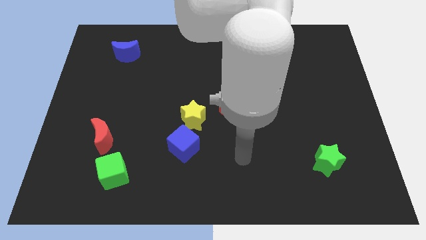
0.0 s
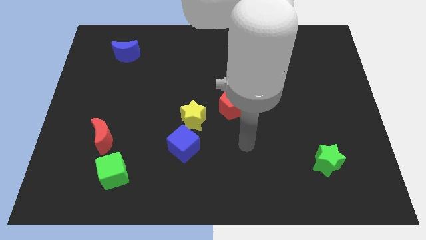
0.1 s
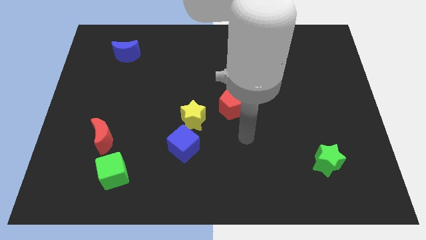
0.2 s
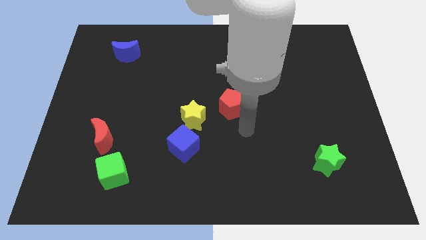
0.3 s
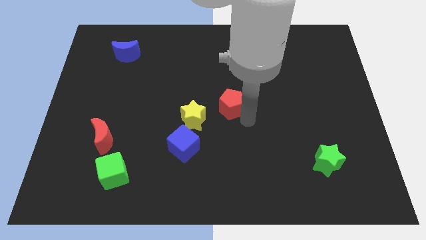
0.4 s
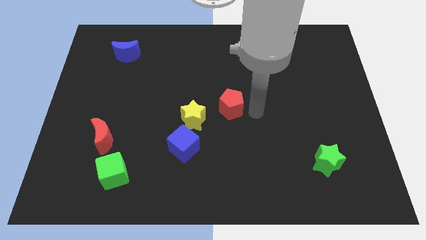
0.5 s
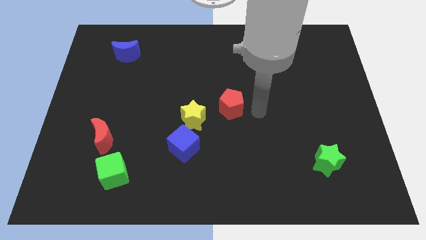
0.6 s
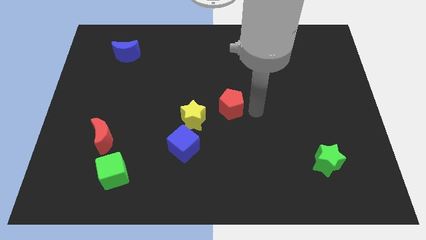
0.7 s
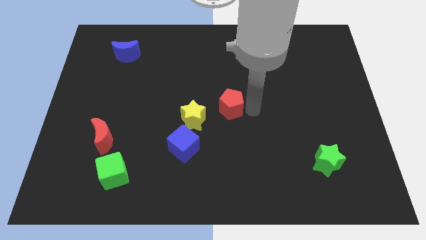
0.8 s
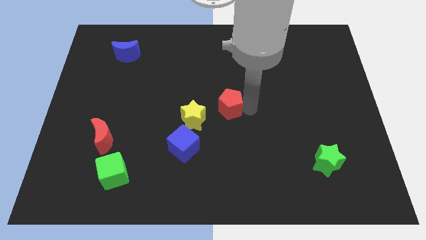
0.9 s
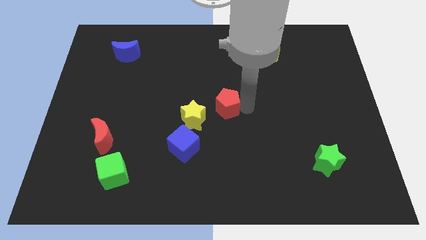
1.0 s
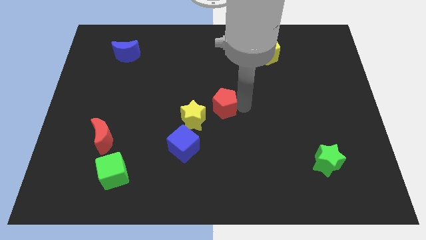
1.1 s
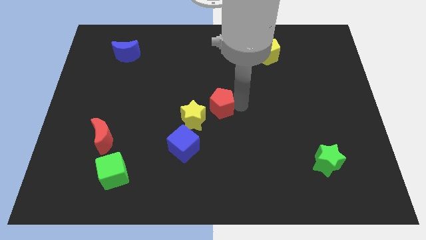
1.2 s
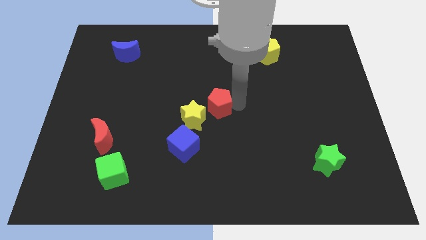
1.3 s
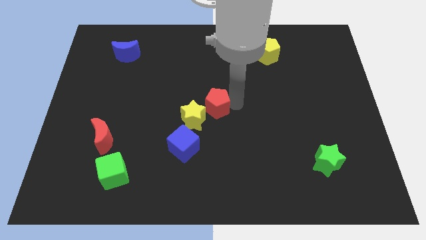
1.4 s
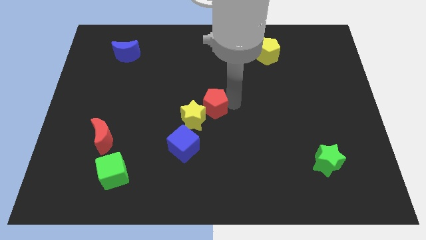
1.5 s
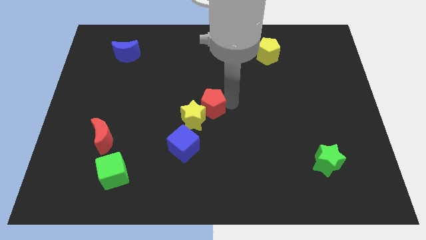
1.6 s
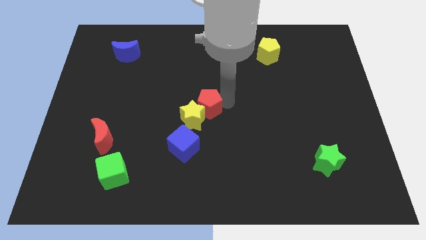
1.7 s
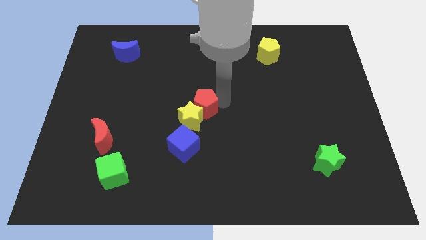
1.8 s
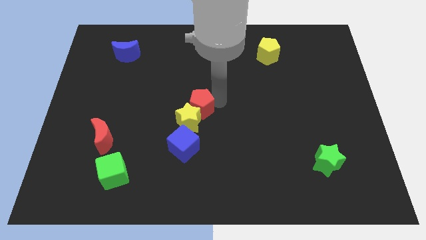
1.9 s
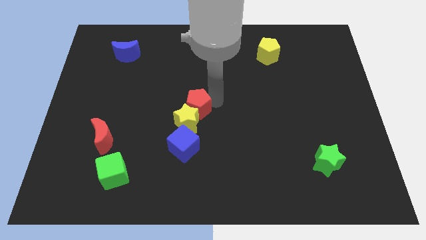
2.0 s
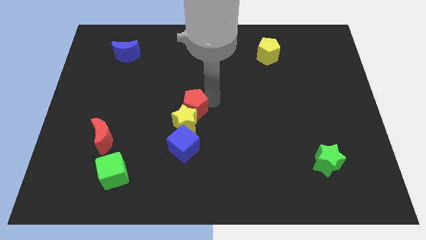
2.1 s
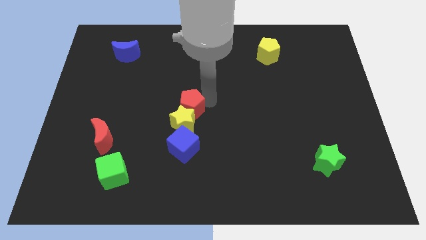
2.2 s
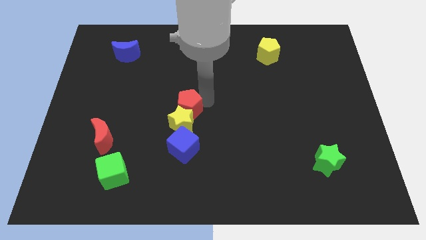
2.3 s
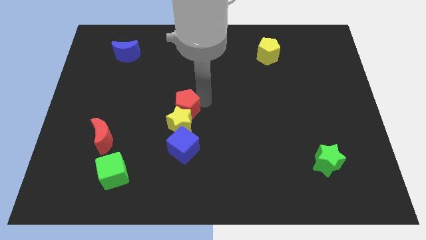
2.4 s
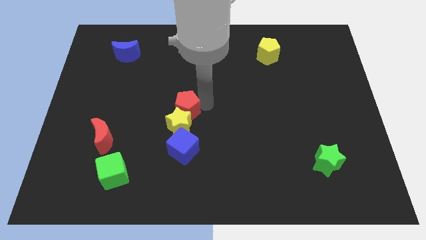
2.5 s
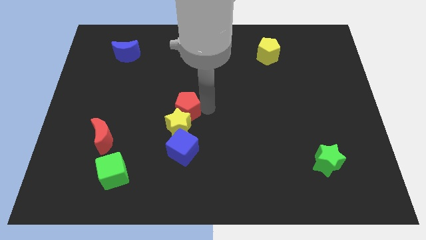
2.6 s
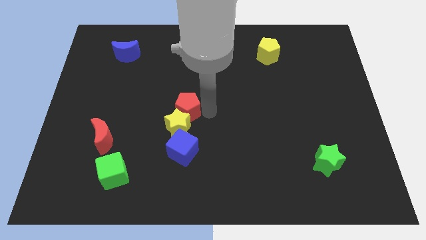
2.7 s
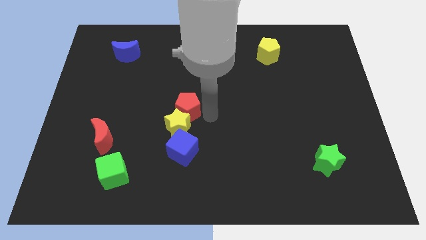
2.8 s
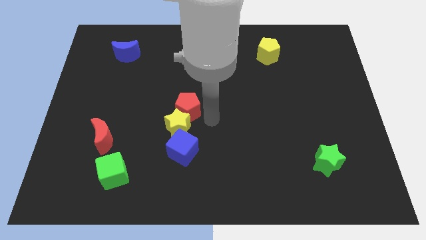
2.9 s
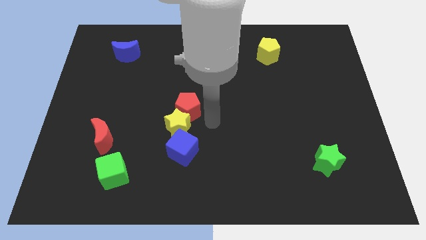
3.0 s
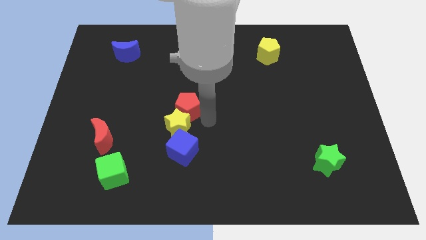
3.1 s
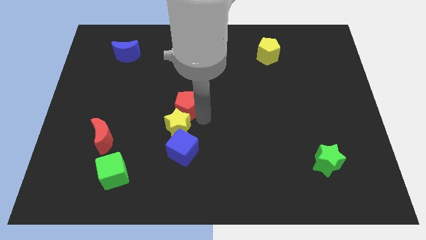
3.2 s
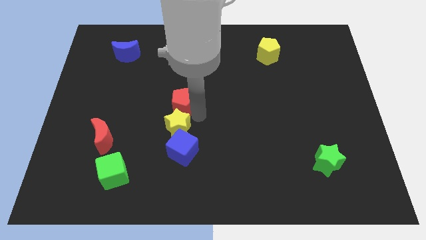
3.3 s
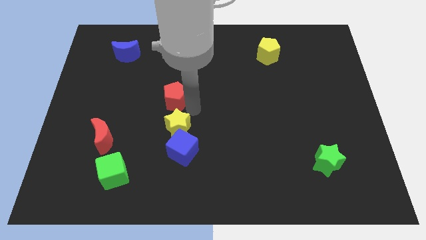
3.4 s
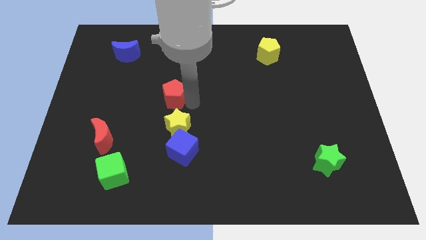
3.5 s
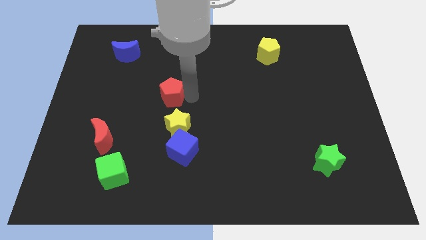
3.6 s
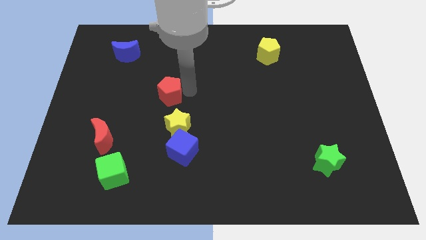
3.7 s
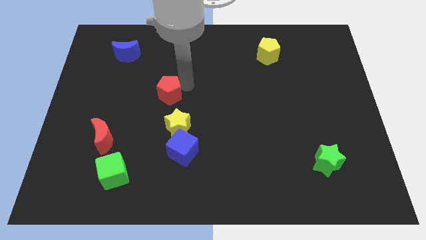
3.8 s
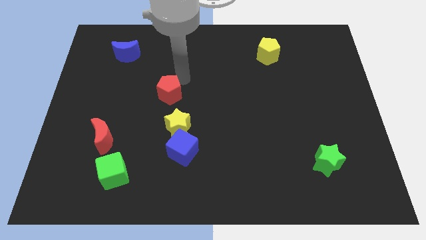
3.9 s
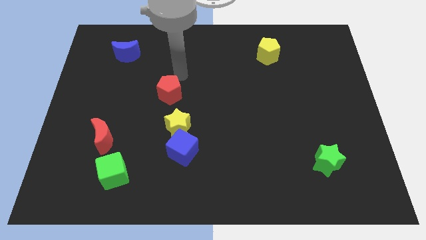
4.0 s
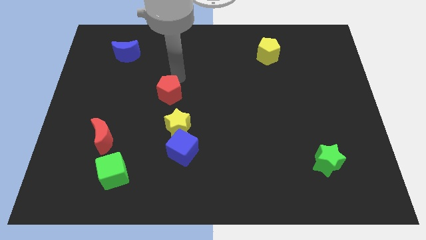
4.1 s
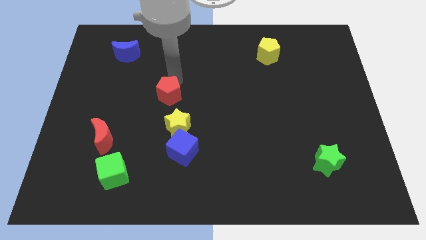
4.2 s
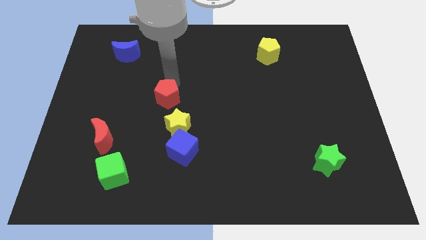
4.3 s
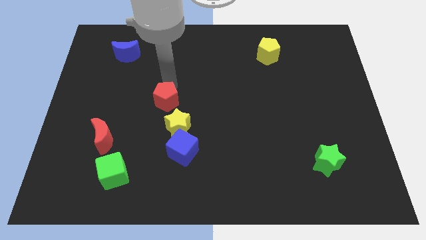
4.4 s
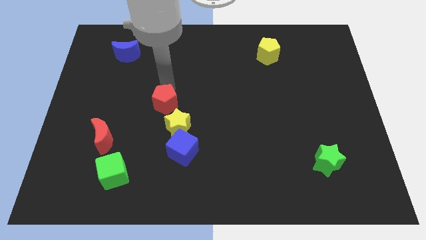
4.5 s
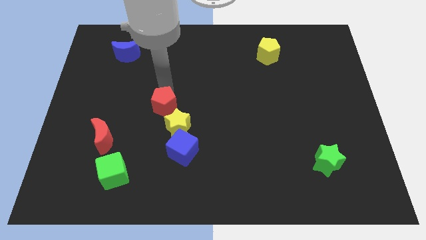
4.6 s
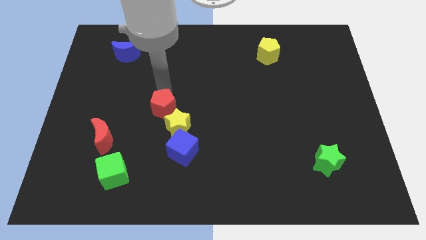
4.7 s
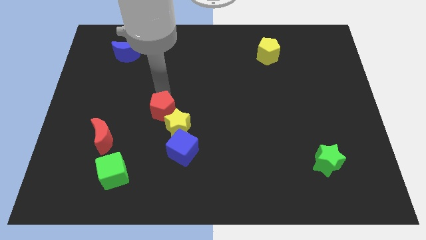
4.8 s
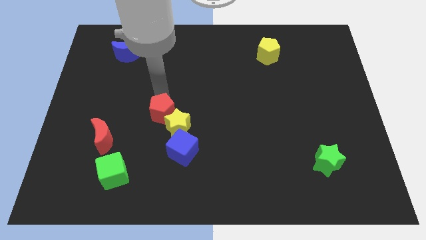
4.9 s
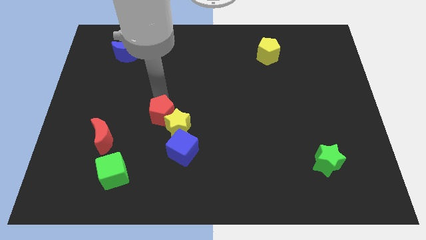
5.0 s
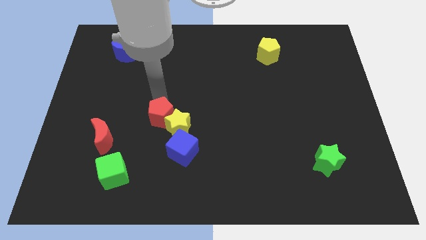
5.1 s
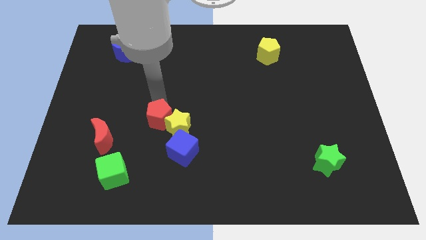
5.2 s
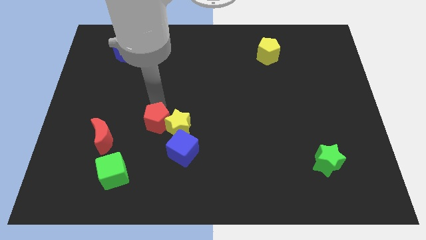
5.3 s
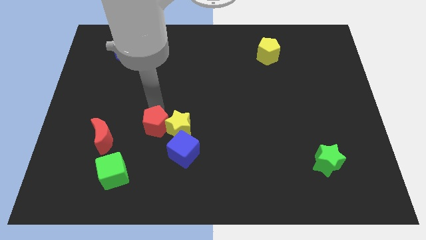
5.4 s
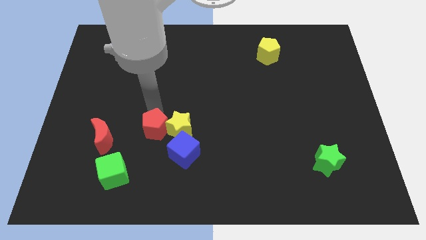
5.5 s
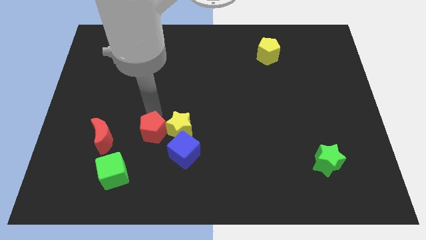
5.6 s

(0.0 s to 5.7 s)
push the red pentagon diagonally up and to the right of the green cube

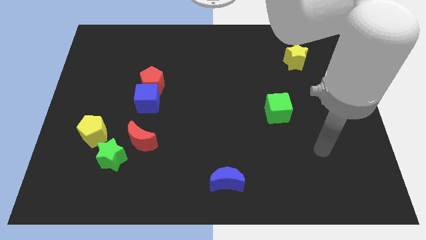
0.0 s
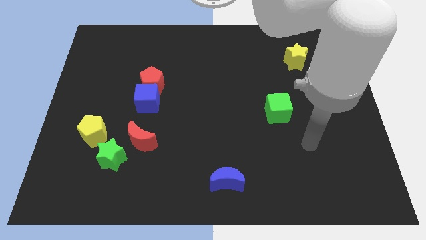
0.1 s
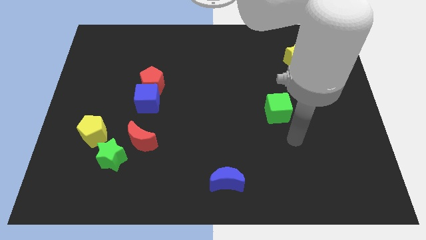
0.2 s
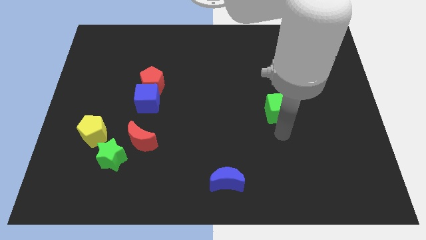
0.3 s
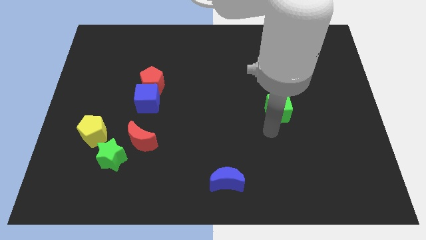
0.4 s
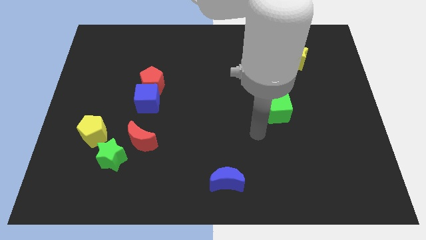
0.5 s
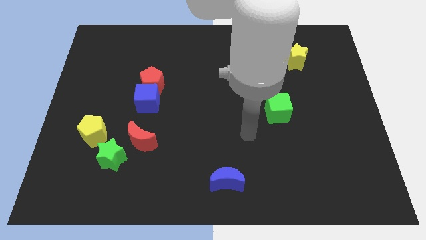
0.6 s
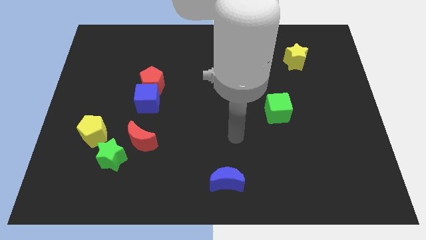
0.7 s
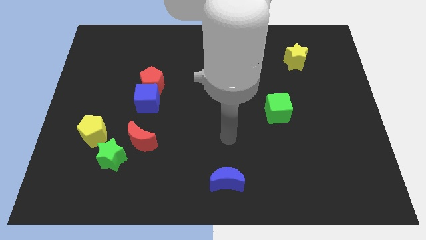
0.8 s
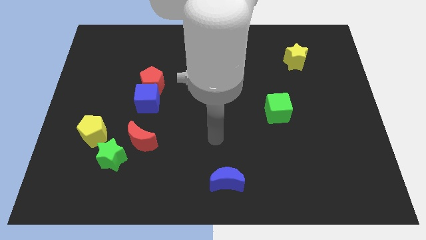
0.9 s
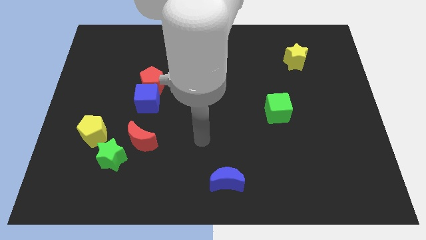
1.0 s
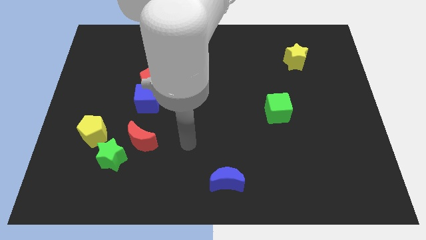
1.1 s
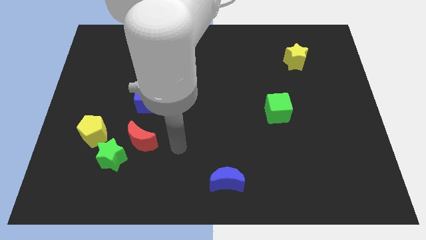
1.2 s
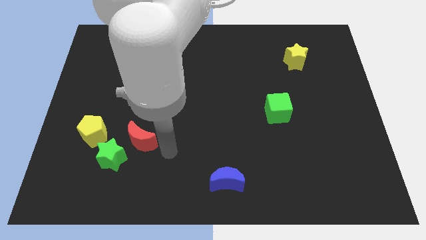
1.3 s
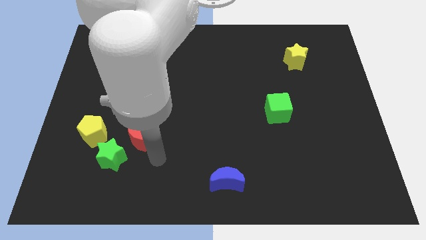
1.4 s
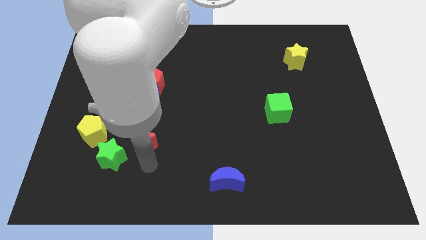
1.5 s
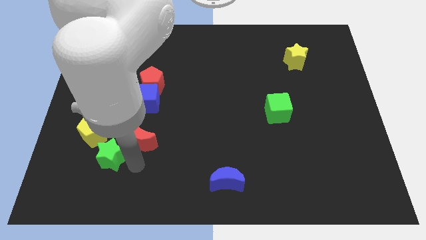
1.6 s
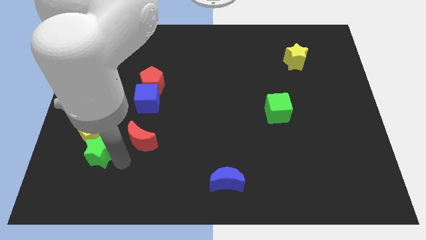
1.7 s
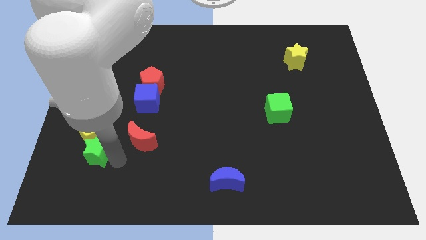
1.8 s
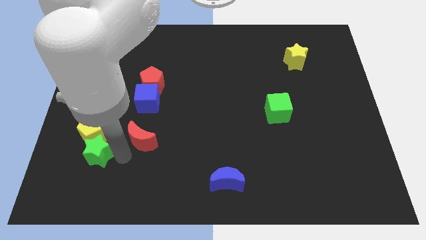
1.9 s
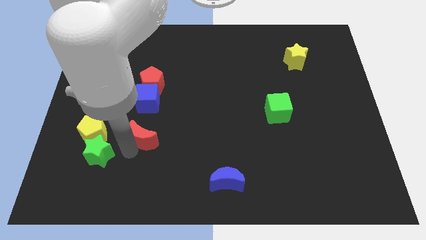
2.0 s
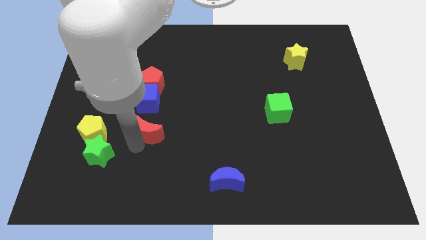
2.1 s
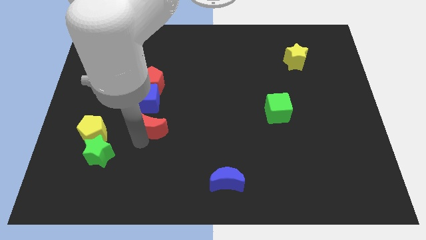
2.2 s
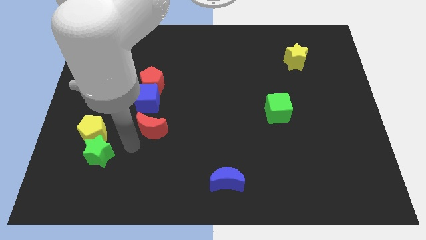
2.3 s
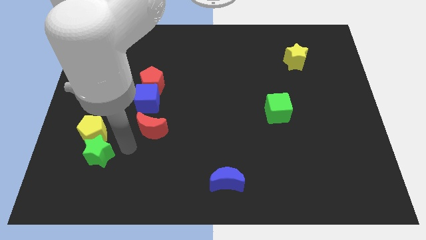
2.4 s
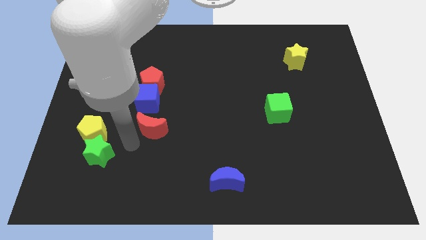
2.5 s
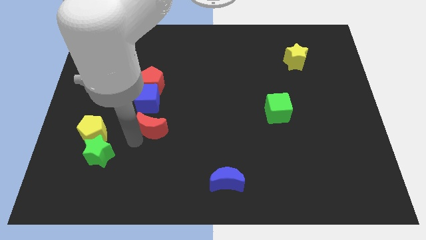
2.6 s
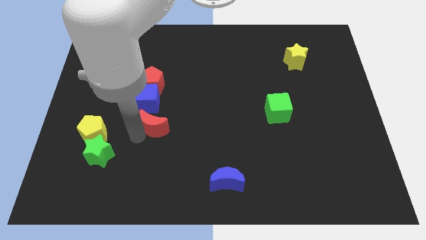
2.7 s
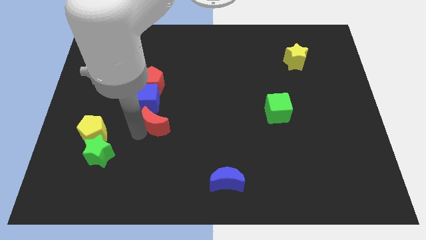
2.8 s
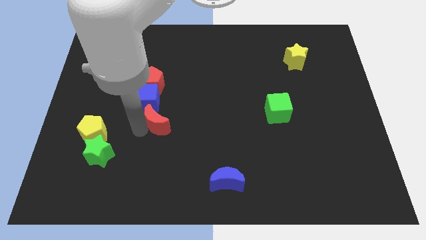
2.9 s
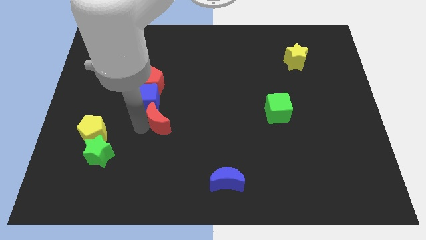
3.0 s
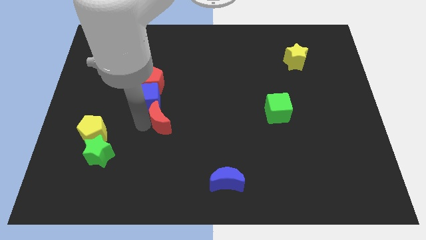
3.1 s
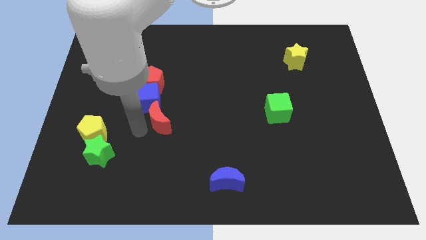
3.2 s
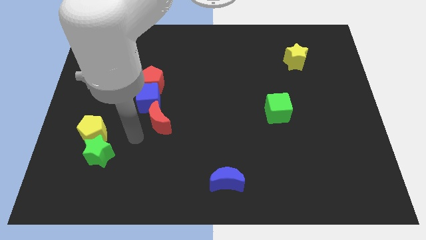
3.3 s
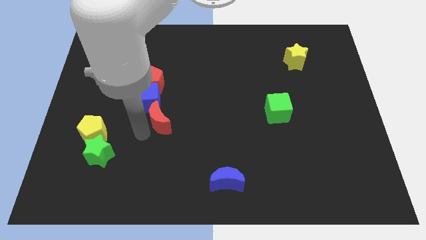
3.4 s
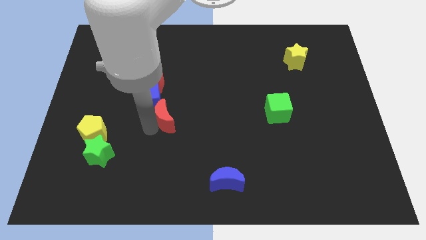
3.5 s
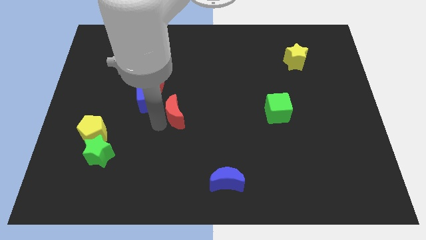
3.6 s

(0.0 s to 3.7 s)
move the red moon right of the blue cube
